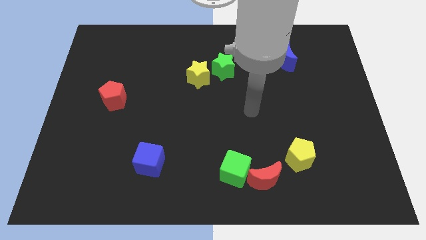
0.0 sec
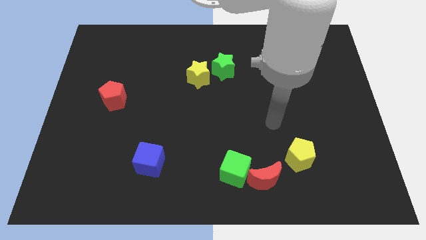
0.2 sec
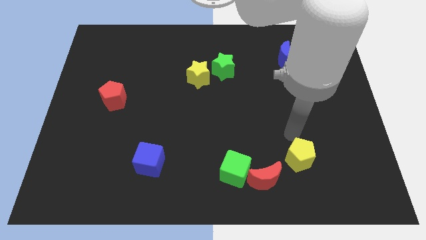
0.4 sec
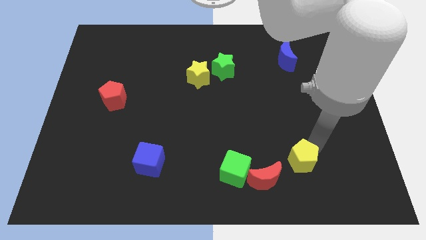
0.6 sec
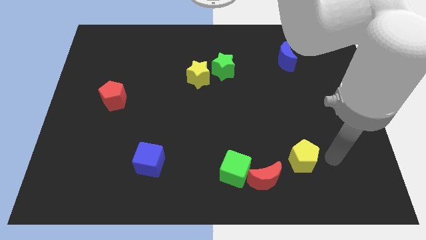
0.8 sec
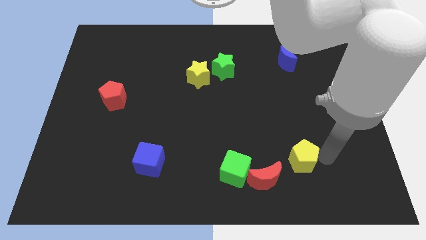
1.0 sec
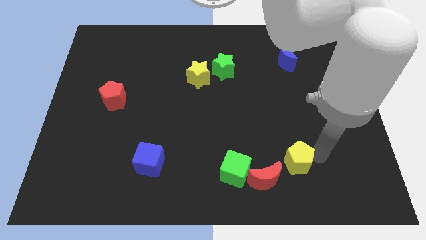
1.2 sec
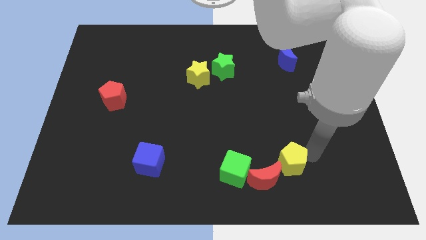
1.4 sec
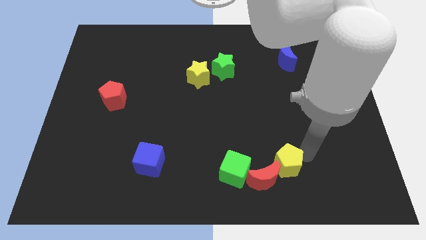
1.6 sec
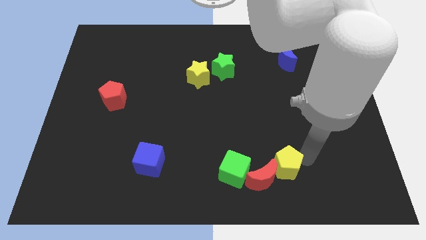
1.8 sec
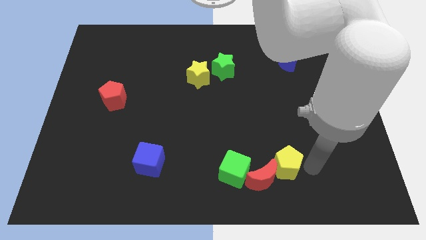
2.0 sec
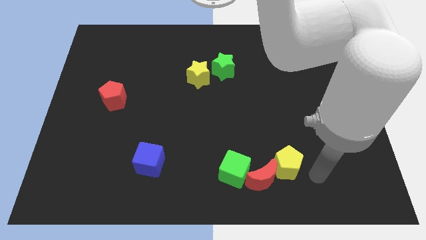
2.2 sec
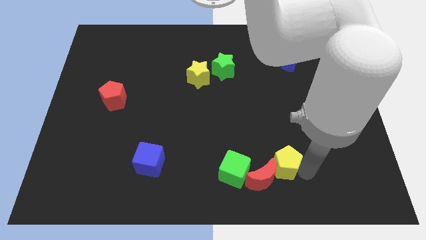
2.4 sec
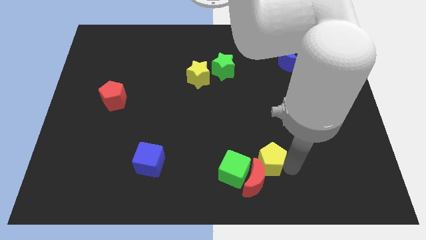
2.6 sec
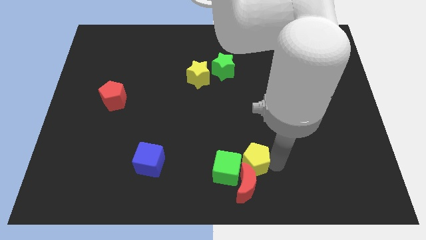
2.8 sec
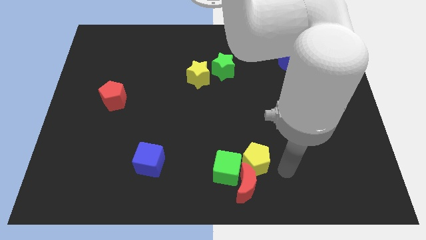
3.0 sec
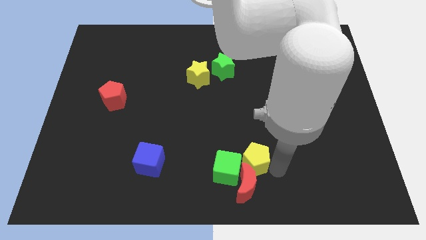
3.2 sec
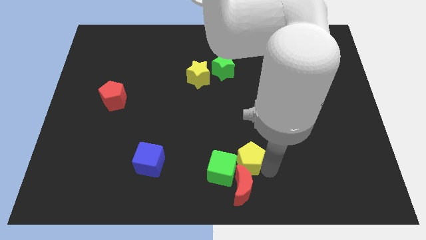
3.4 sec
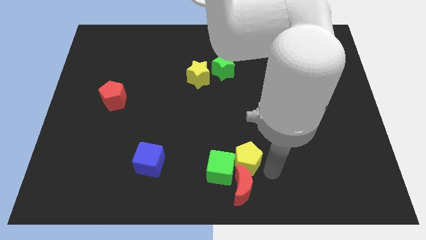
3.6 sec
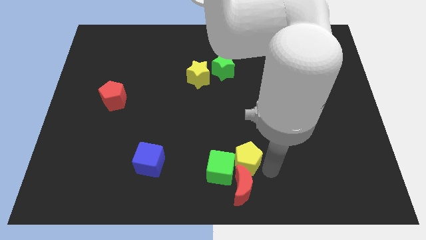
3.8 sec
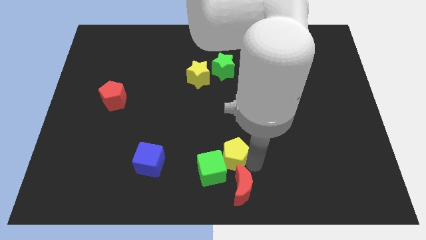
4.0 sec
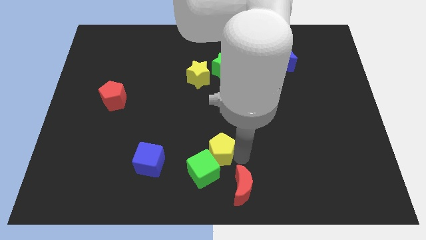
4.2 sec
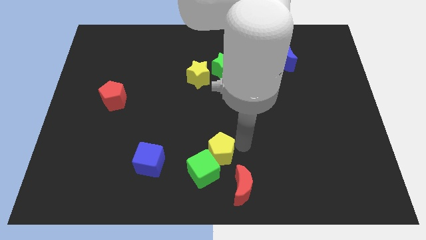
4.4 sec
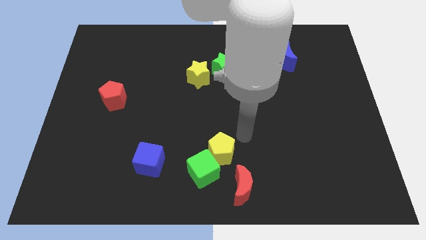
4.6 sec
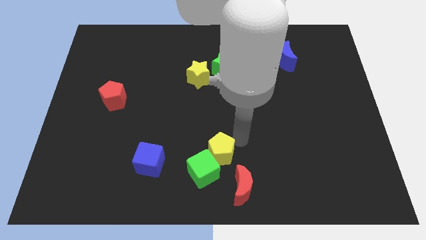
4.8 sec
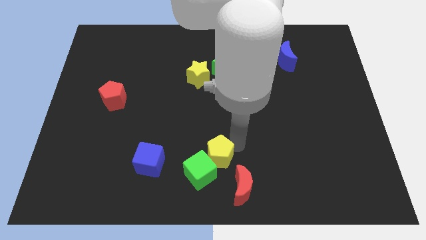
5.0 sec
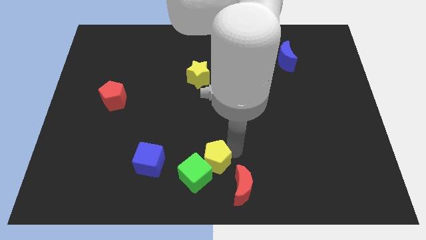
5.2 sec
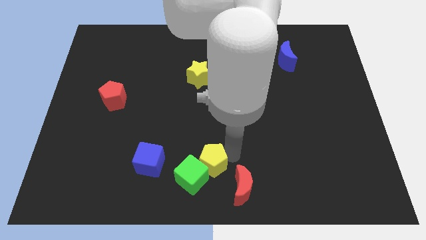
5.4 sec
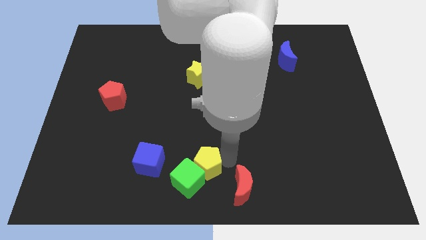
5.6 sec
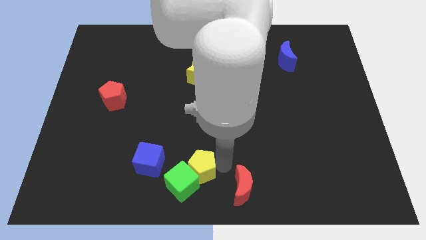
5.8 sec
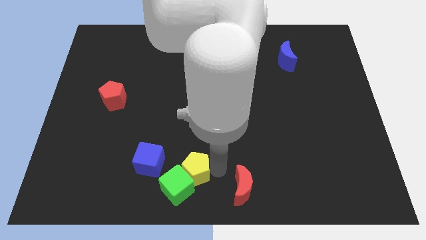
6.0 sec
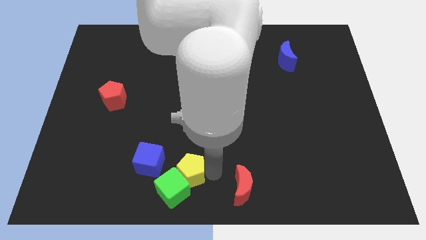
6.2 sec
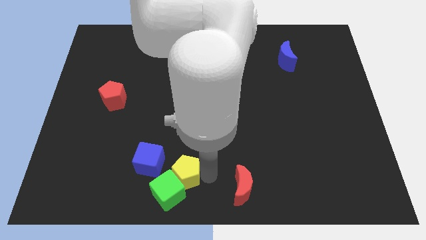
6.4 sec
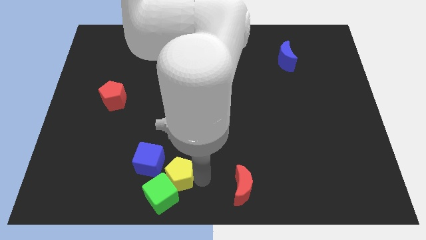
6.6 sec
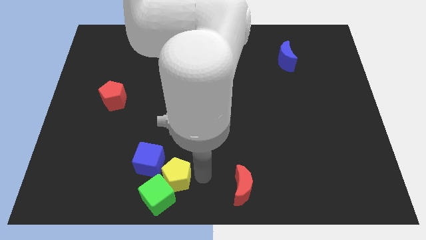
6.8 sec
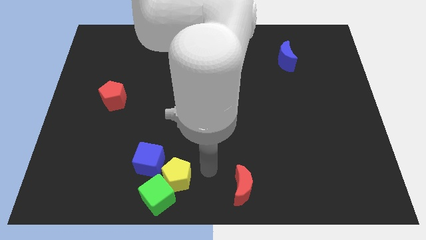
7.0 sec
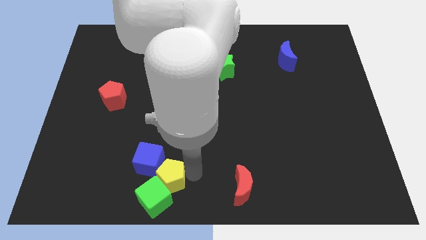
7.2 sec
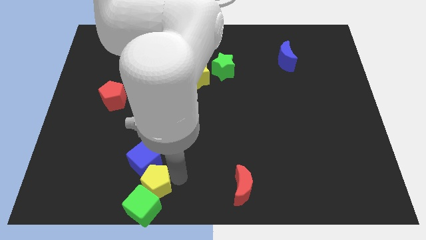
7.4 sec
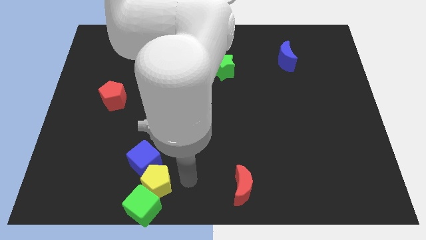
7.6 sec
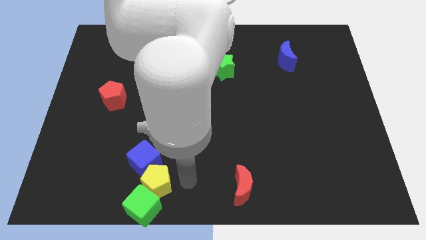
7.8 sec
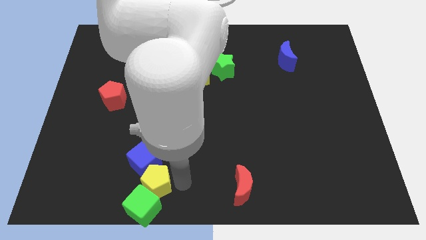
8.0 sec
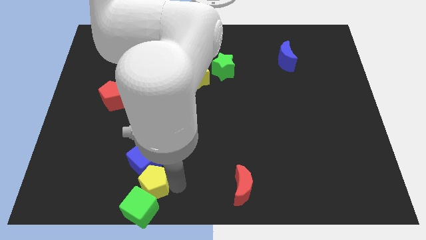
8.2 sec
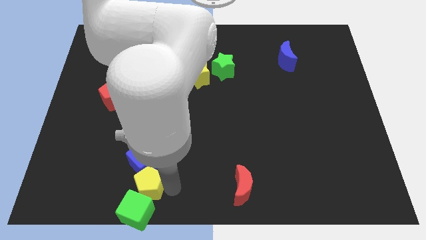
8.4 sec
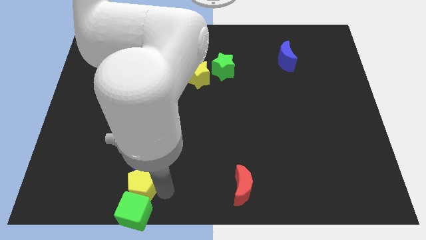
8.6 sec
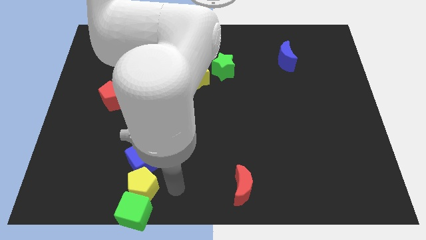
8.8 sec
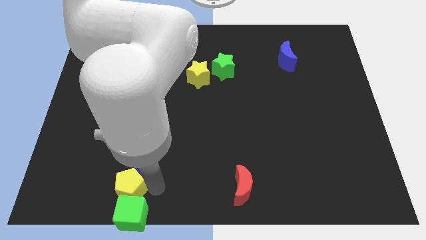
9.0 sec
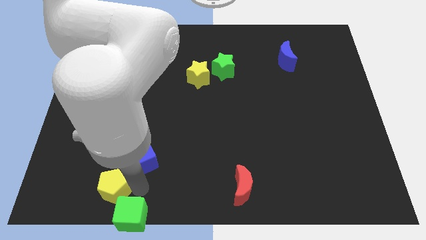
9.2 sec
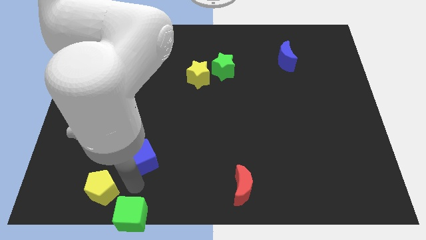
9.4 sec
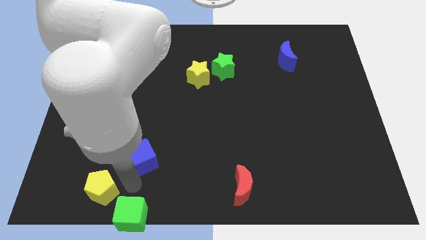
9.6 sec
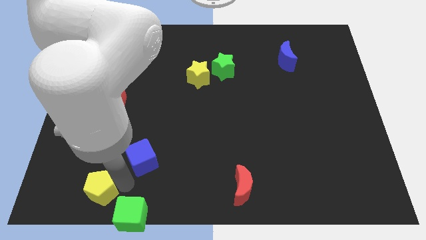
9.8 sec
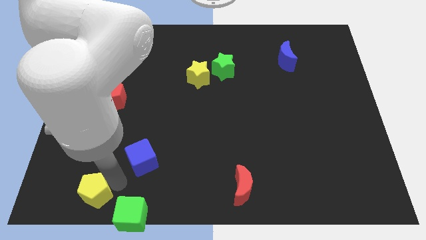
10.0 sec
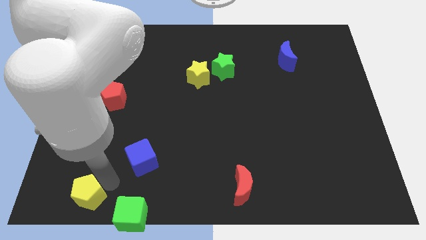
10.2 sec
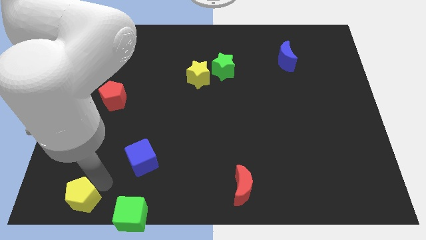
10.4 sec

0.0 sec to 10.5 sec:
move the yellow pentagon to the lower left corner
